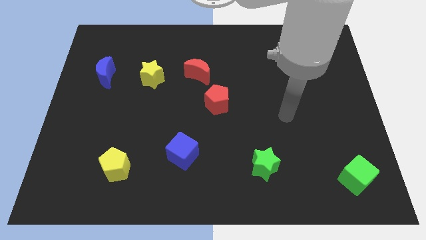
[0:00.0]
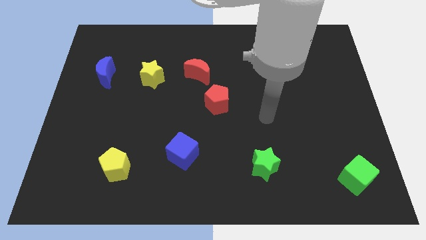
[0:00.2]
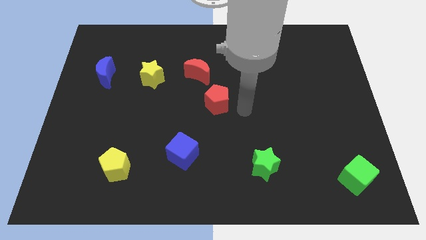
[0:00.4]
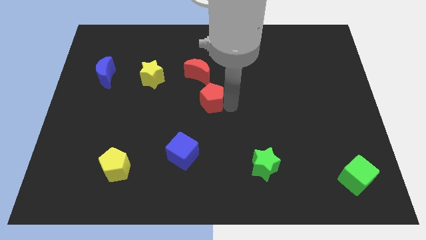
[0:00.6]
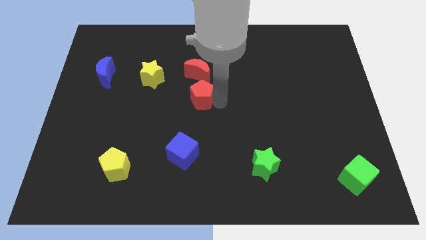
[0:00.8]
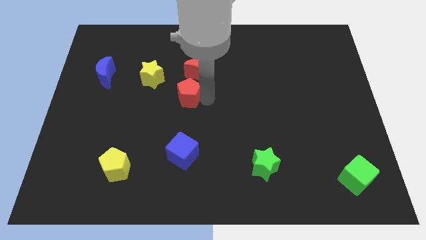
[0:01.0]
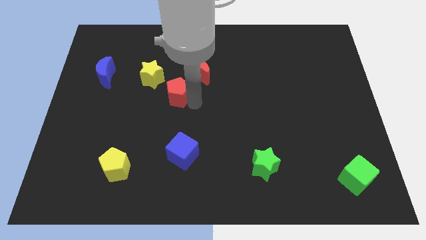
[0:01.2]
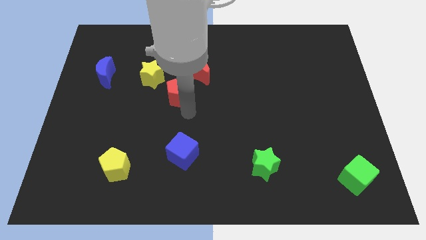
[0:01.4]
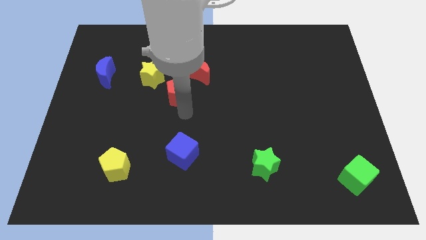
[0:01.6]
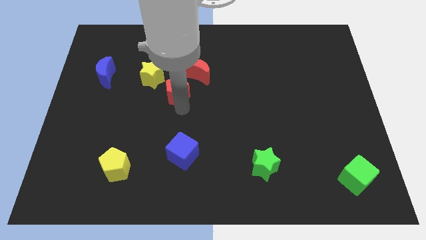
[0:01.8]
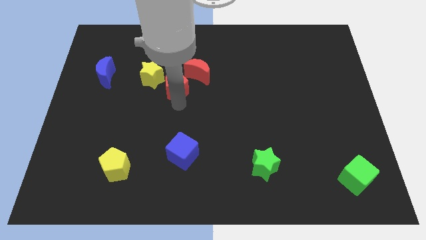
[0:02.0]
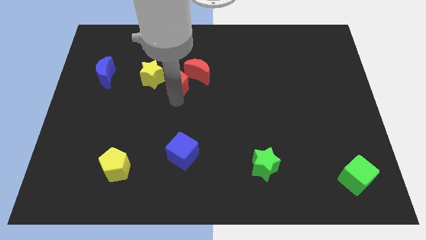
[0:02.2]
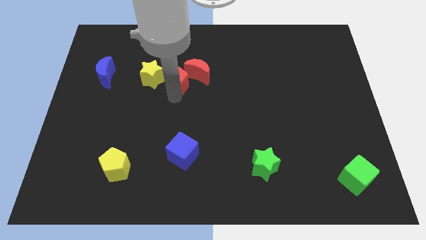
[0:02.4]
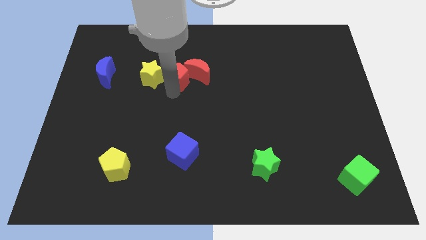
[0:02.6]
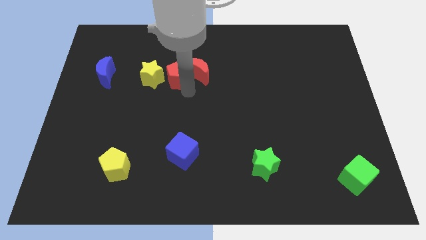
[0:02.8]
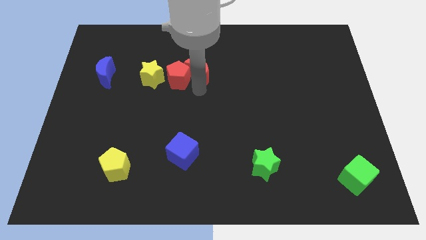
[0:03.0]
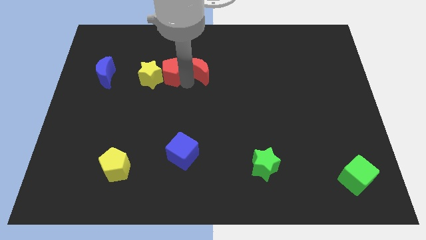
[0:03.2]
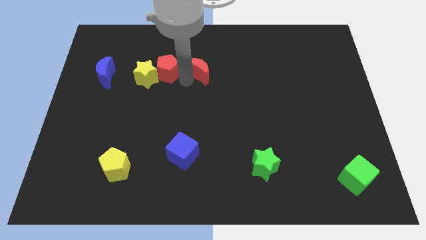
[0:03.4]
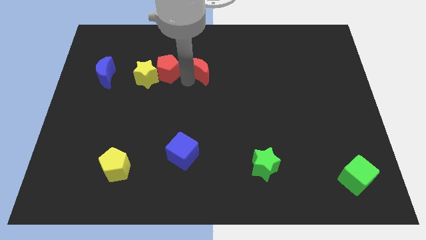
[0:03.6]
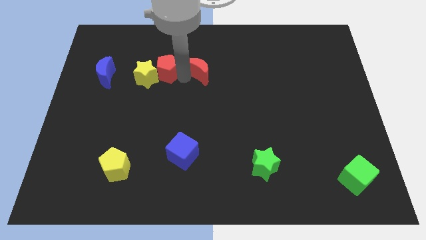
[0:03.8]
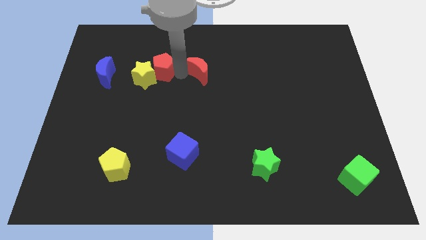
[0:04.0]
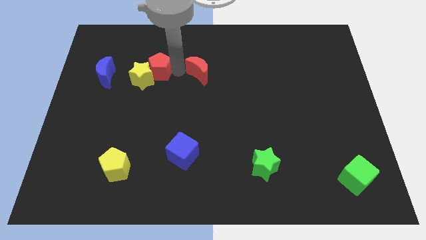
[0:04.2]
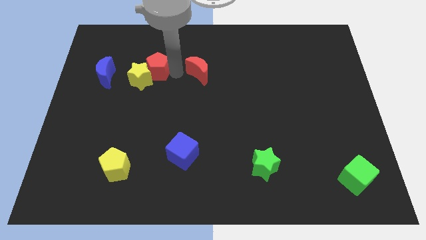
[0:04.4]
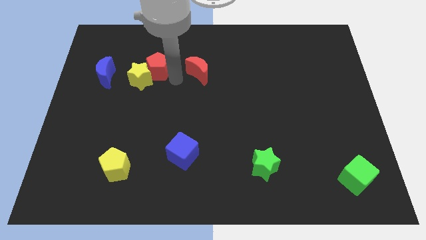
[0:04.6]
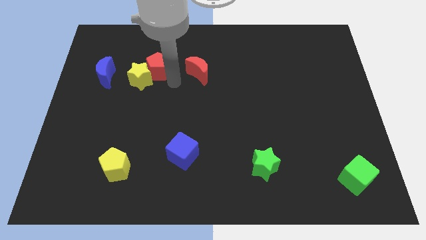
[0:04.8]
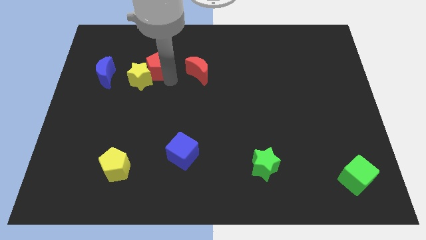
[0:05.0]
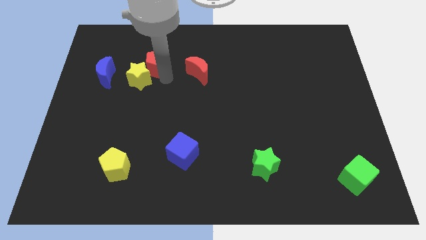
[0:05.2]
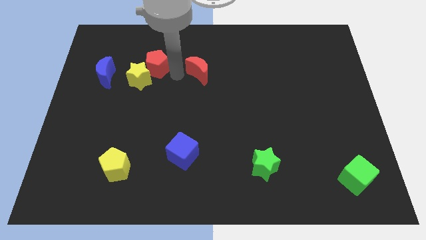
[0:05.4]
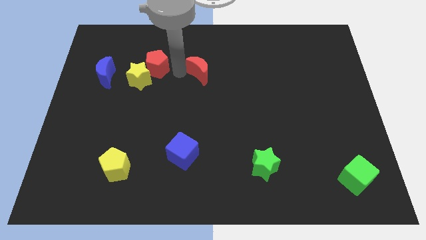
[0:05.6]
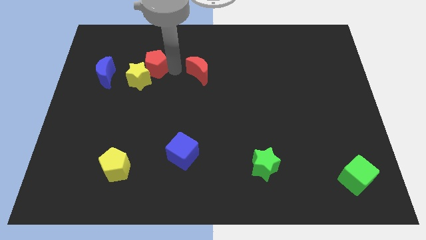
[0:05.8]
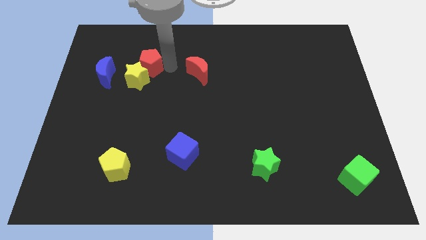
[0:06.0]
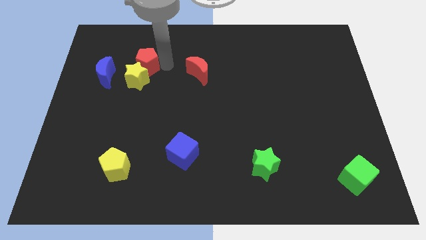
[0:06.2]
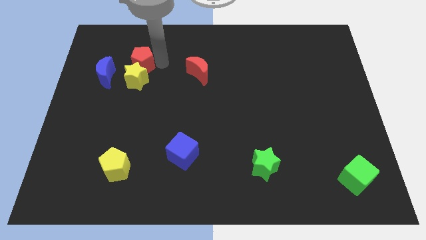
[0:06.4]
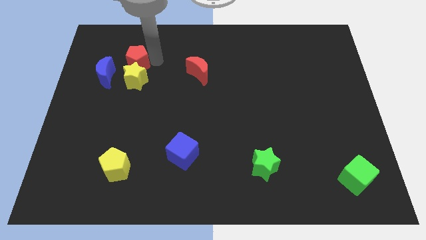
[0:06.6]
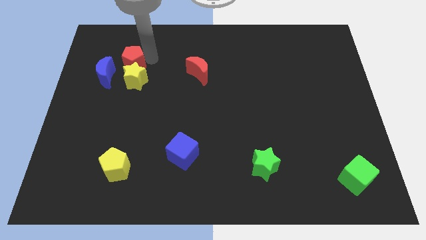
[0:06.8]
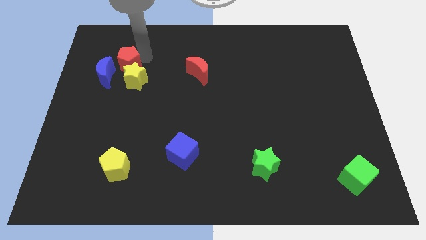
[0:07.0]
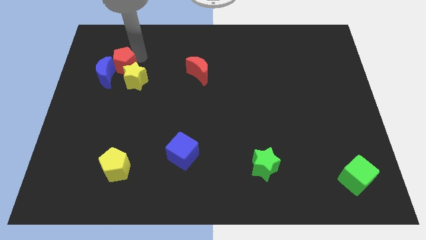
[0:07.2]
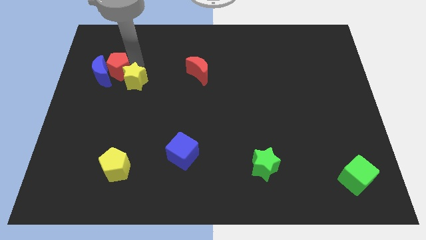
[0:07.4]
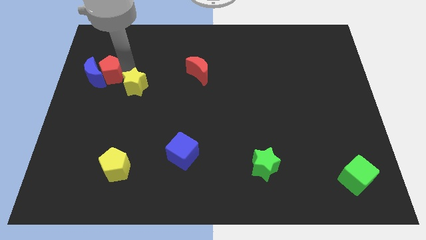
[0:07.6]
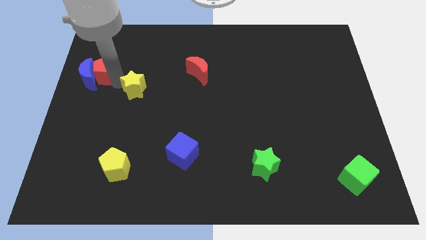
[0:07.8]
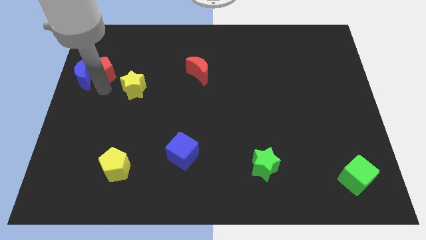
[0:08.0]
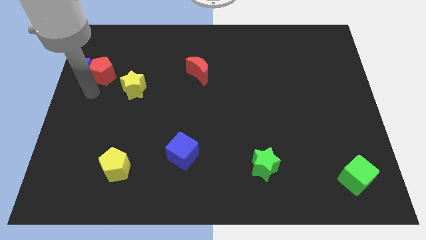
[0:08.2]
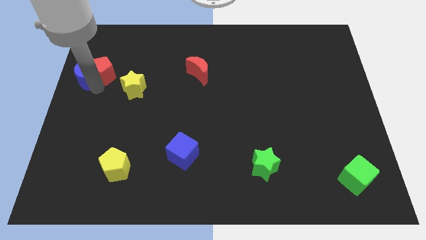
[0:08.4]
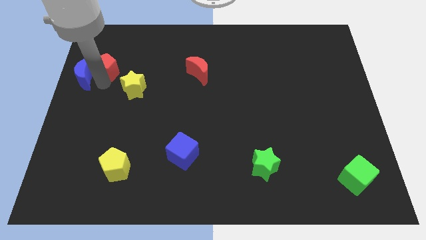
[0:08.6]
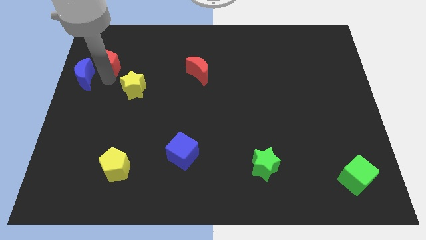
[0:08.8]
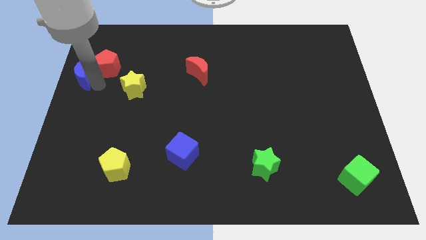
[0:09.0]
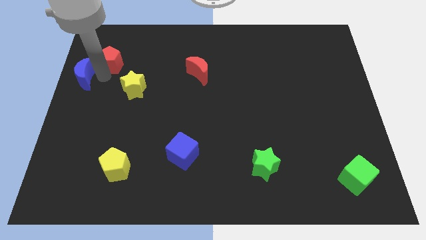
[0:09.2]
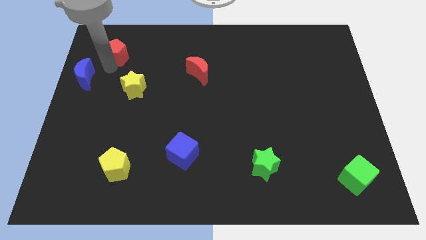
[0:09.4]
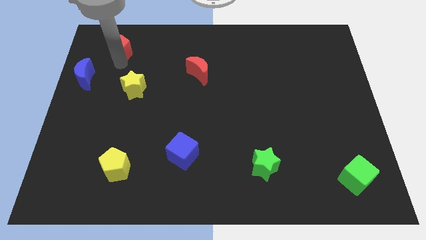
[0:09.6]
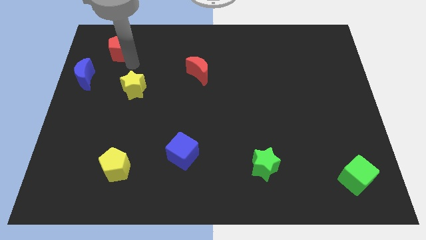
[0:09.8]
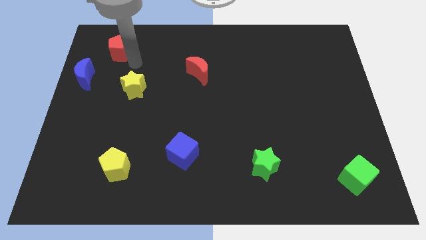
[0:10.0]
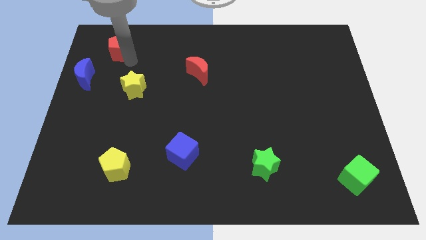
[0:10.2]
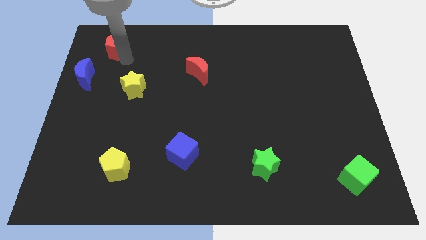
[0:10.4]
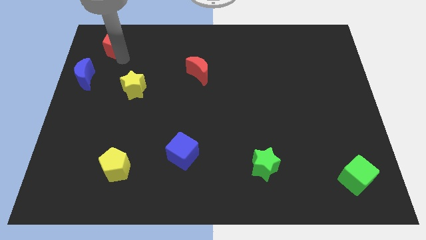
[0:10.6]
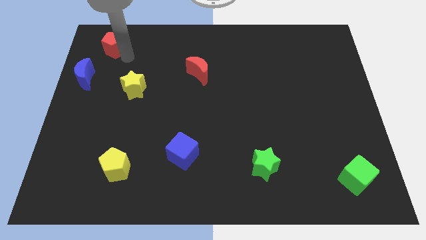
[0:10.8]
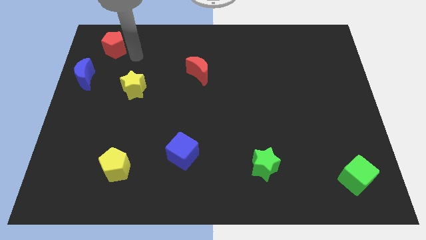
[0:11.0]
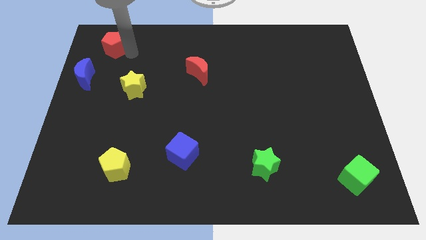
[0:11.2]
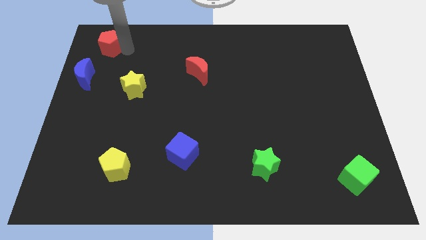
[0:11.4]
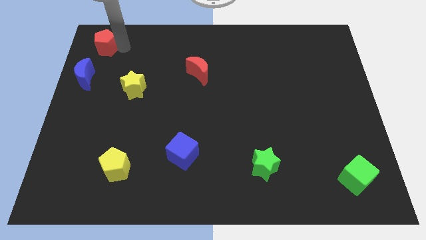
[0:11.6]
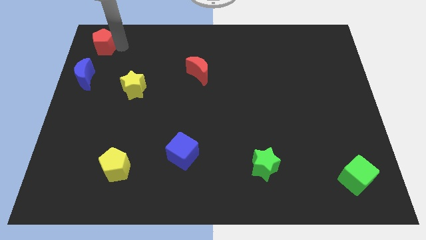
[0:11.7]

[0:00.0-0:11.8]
move the red pentagon to the upper left corner

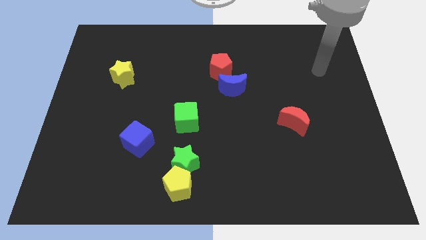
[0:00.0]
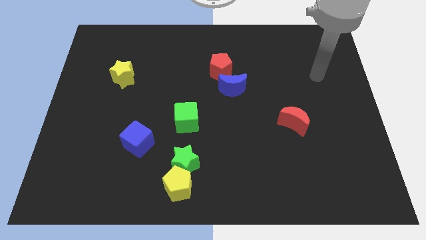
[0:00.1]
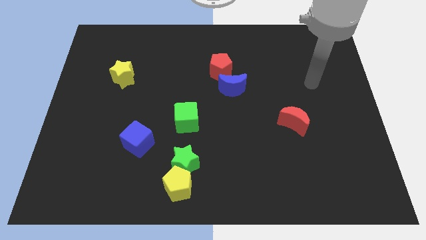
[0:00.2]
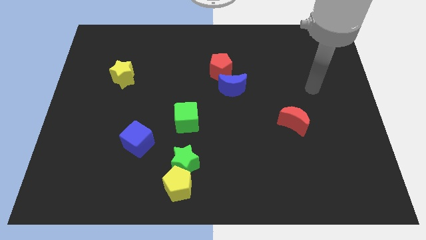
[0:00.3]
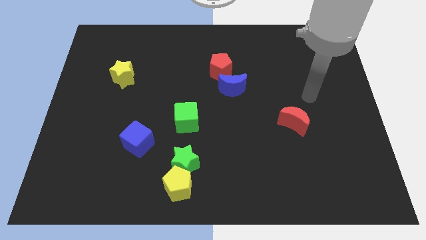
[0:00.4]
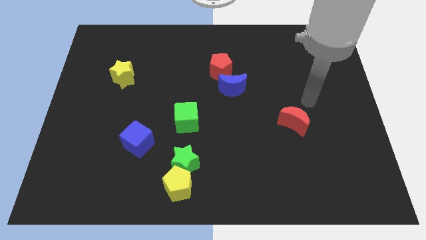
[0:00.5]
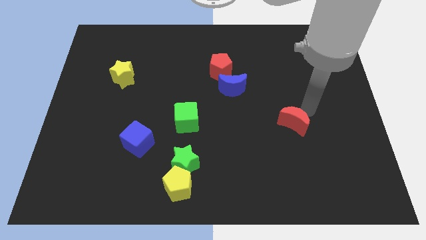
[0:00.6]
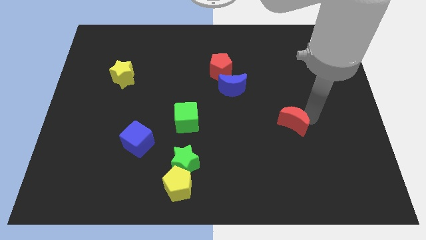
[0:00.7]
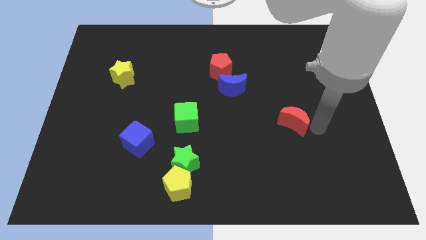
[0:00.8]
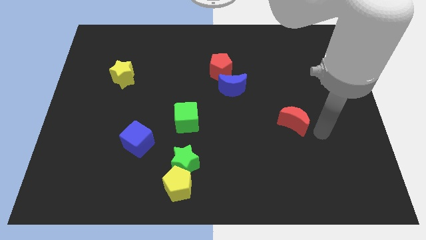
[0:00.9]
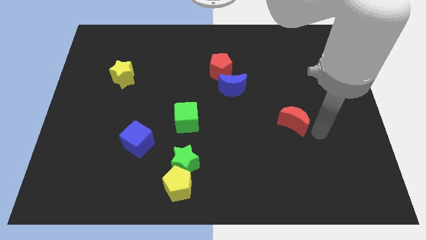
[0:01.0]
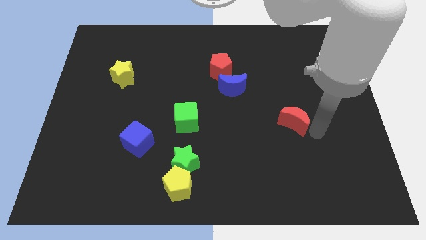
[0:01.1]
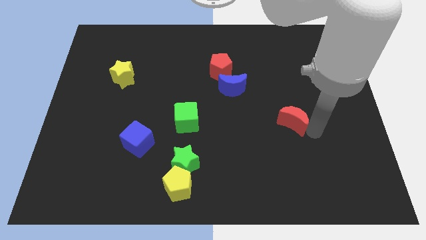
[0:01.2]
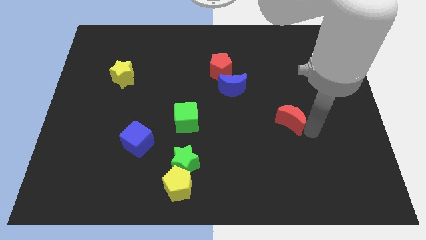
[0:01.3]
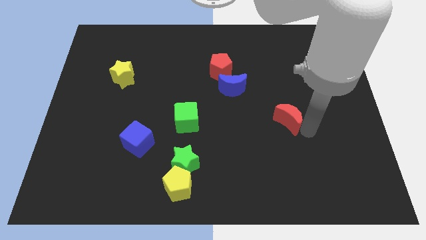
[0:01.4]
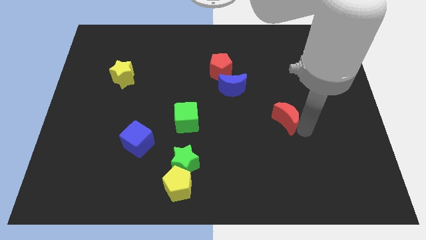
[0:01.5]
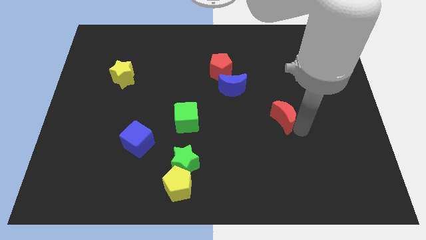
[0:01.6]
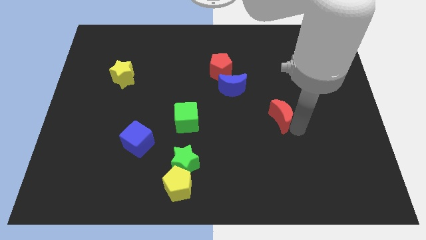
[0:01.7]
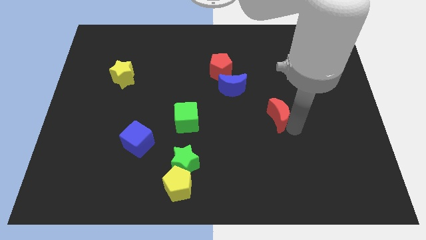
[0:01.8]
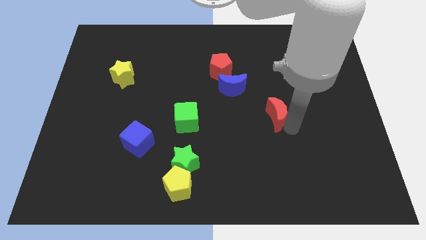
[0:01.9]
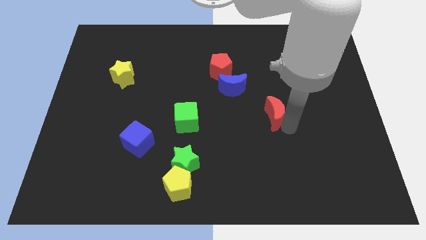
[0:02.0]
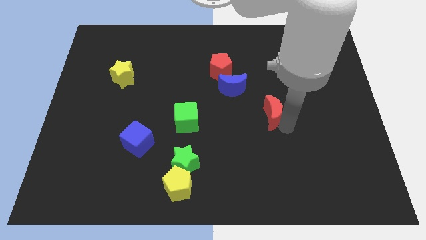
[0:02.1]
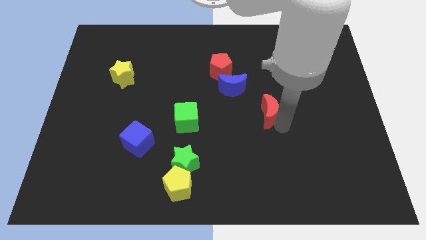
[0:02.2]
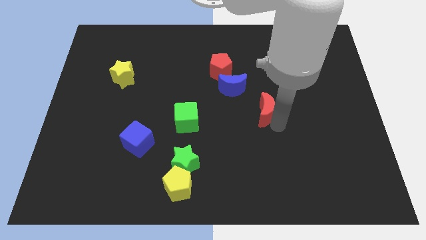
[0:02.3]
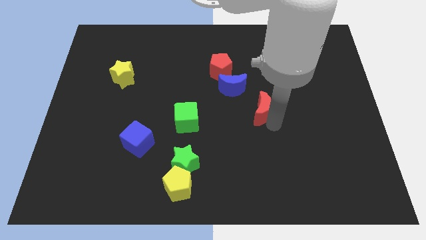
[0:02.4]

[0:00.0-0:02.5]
push the red moon to the middle of the board
